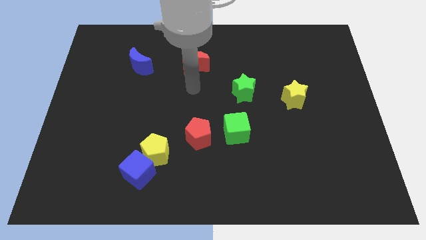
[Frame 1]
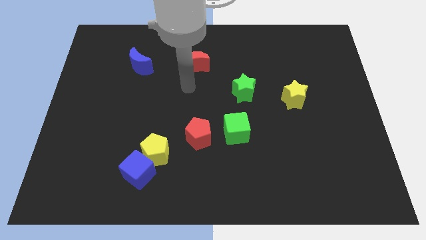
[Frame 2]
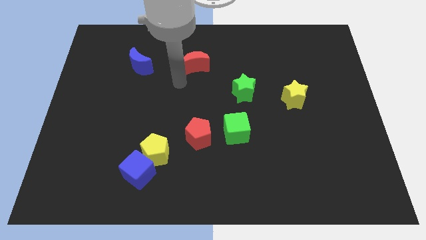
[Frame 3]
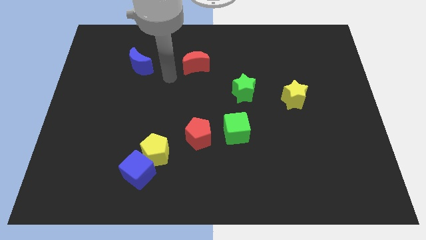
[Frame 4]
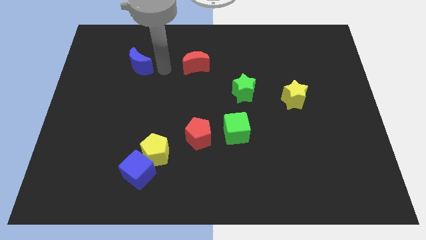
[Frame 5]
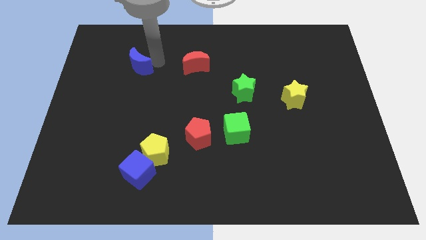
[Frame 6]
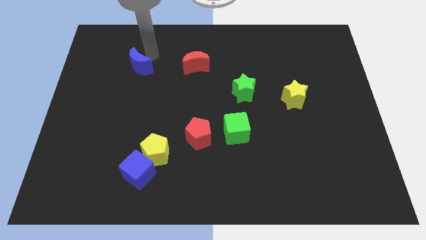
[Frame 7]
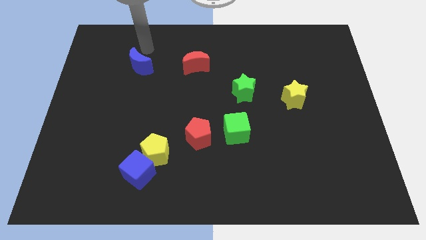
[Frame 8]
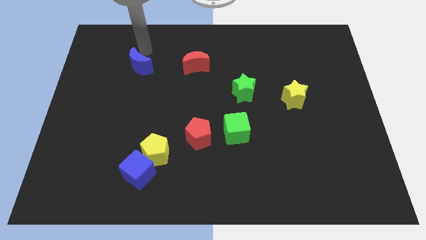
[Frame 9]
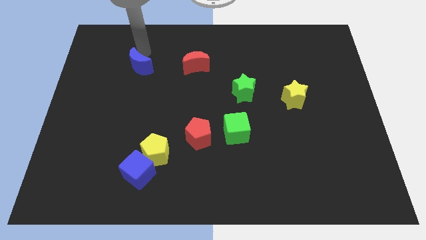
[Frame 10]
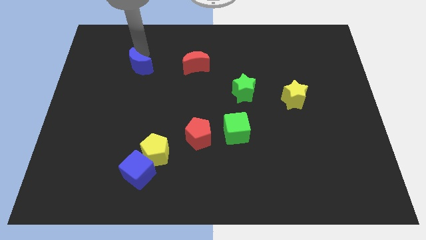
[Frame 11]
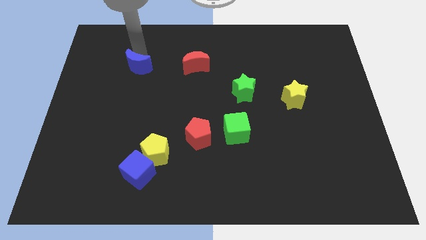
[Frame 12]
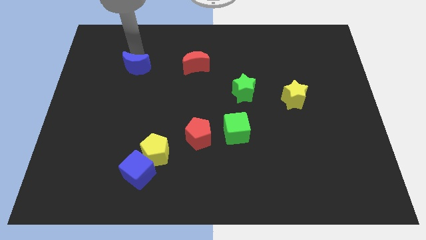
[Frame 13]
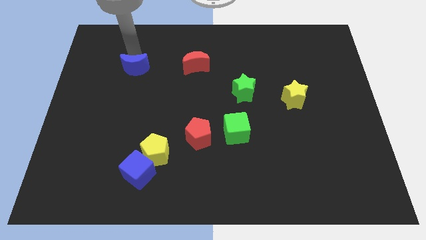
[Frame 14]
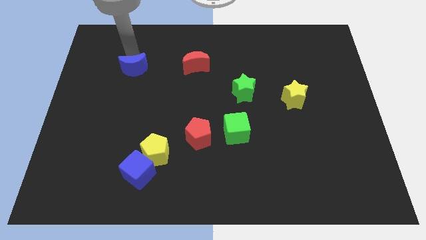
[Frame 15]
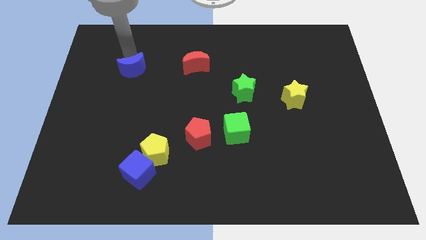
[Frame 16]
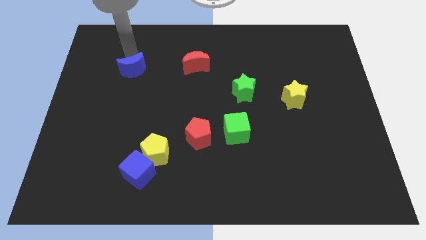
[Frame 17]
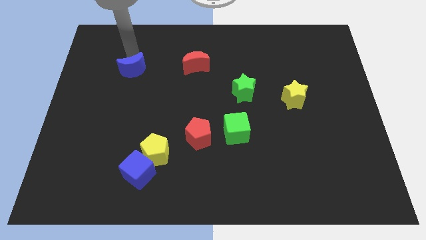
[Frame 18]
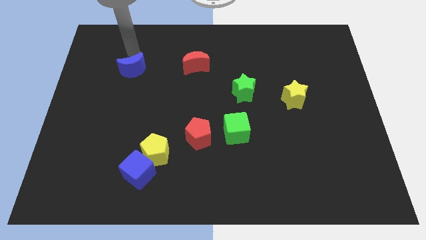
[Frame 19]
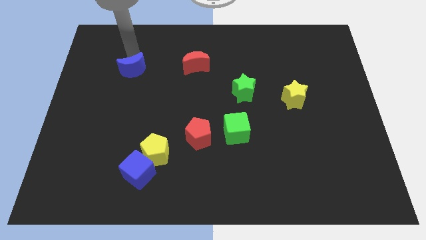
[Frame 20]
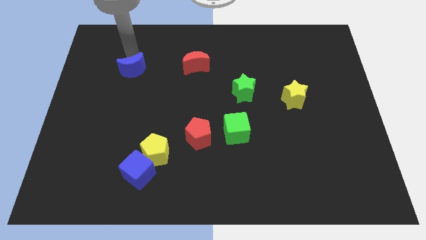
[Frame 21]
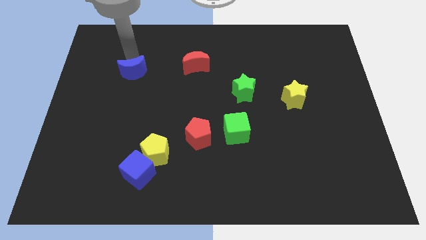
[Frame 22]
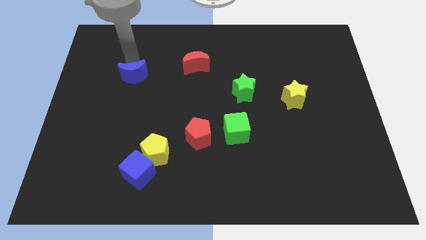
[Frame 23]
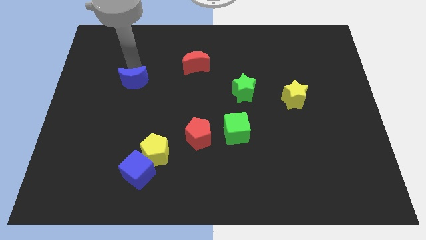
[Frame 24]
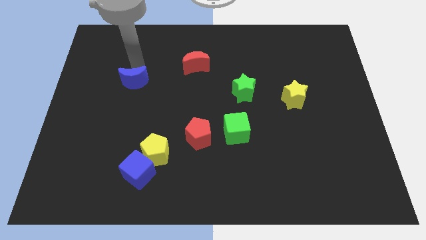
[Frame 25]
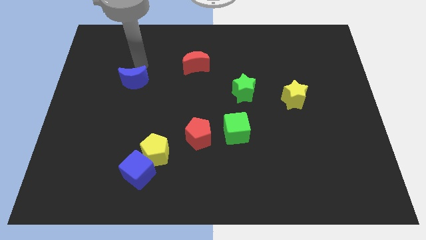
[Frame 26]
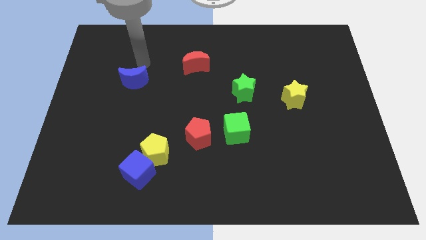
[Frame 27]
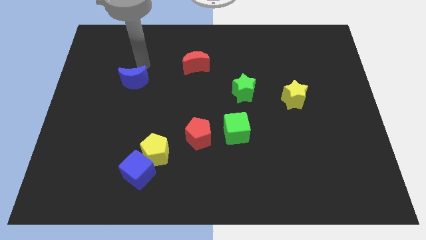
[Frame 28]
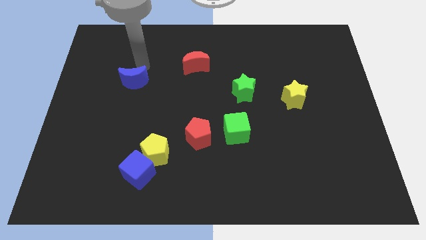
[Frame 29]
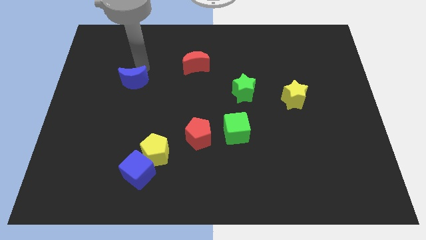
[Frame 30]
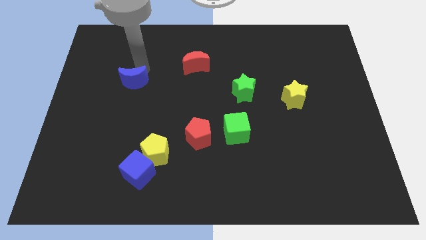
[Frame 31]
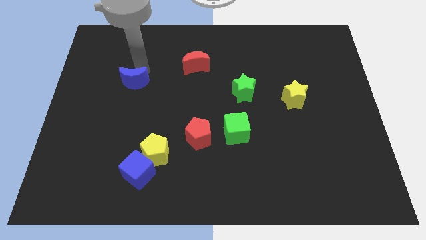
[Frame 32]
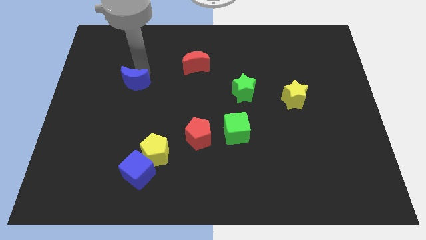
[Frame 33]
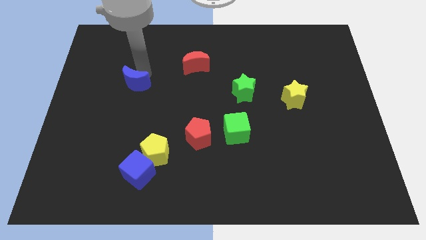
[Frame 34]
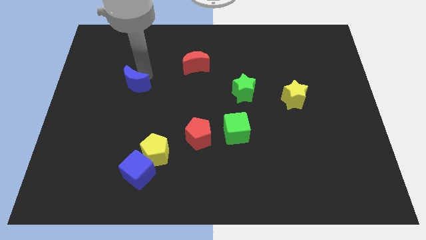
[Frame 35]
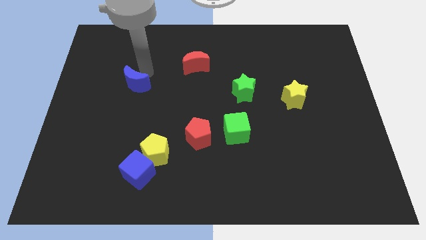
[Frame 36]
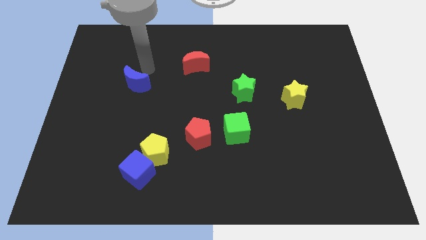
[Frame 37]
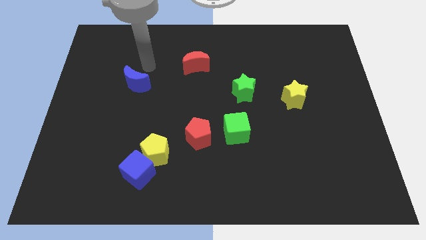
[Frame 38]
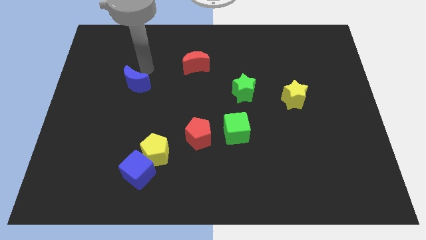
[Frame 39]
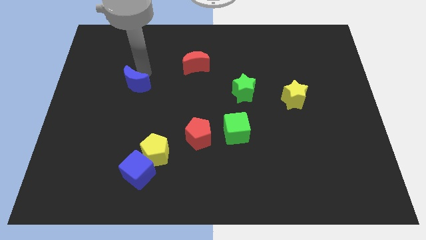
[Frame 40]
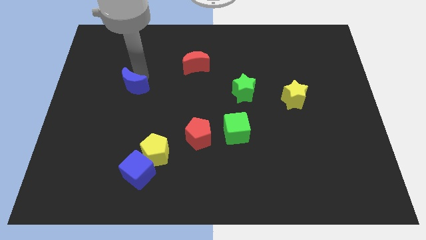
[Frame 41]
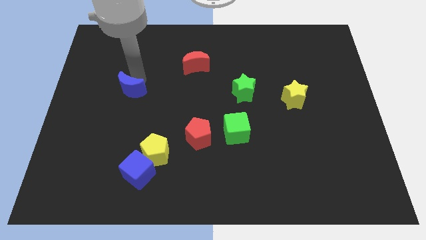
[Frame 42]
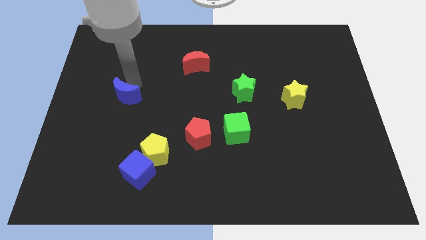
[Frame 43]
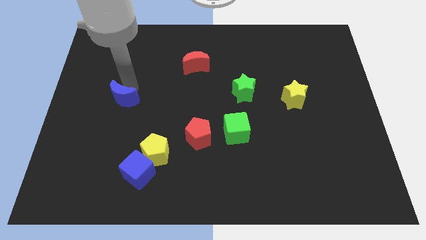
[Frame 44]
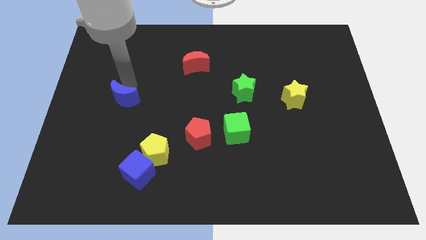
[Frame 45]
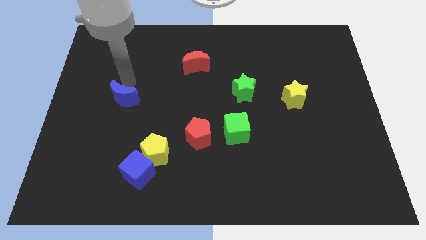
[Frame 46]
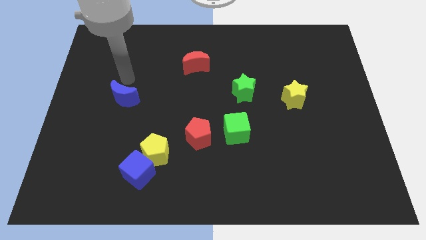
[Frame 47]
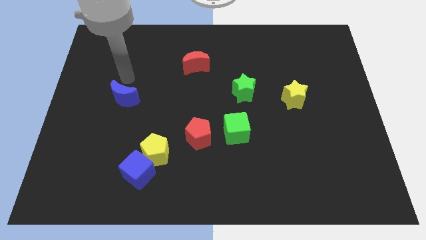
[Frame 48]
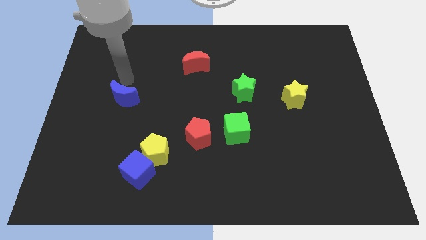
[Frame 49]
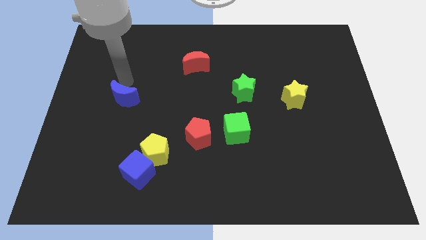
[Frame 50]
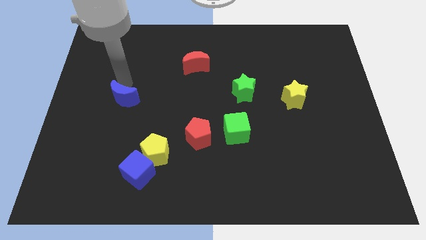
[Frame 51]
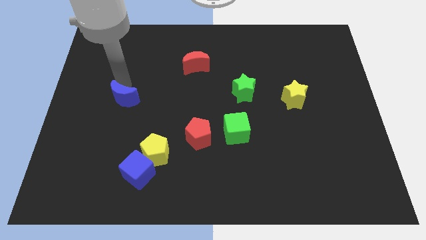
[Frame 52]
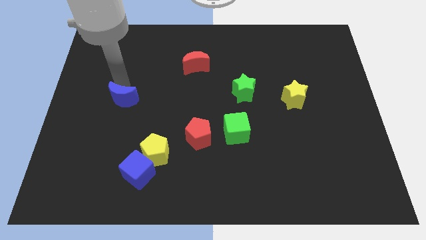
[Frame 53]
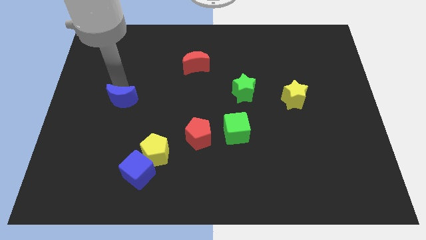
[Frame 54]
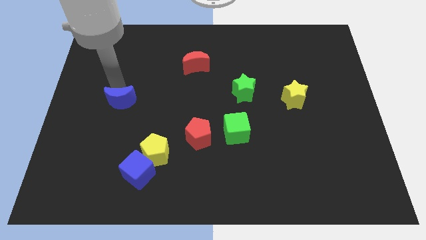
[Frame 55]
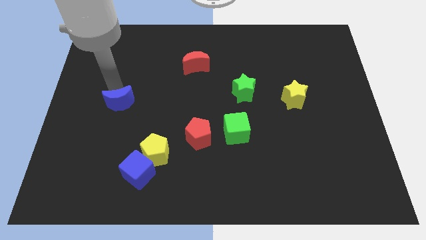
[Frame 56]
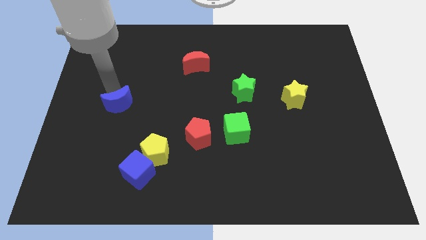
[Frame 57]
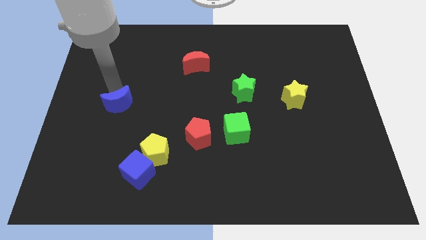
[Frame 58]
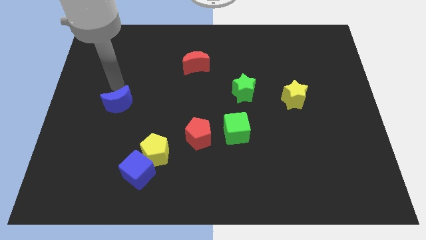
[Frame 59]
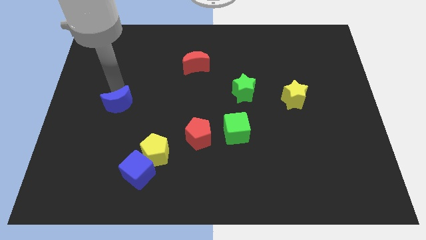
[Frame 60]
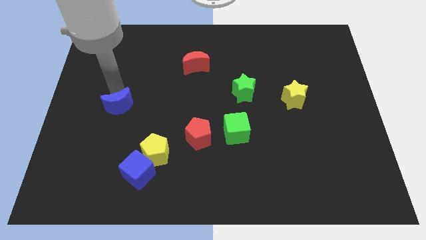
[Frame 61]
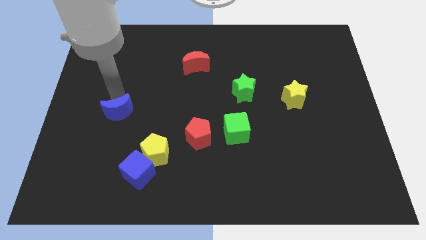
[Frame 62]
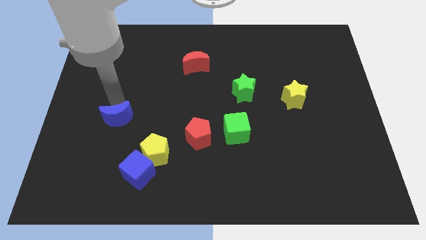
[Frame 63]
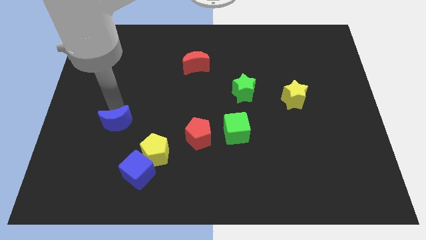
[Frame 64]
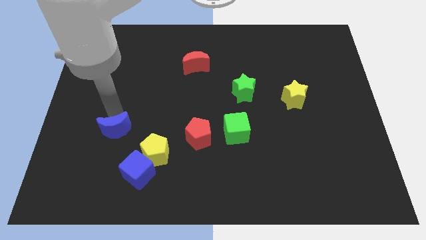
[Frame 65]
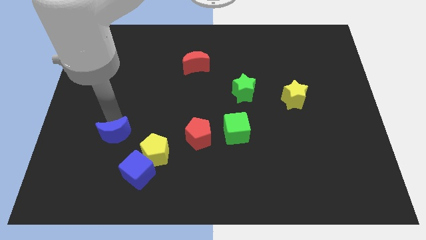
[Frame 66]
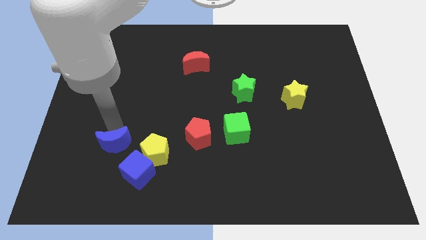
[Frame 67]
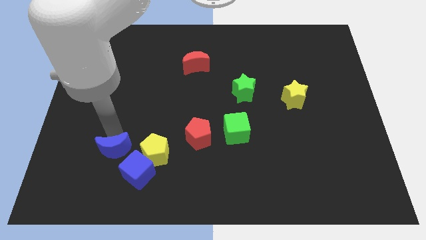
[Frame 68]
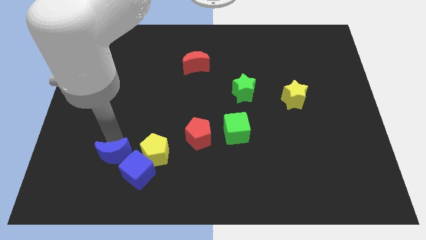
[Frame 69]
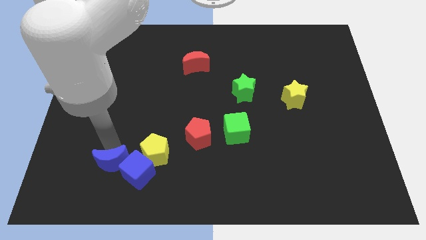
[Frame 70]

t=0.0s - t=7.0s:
push the blue moon to the bottom left side of the yellow pentagon
